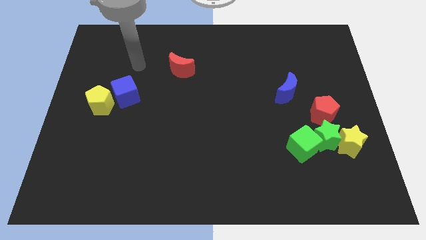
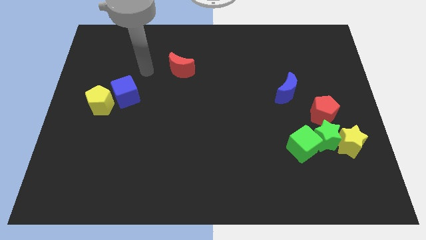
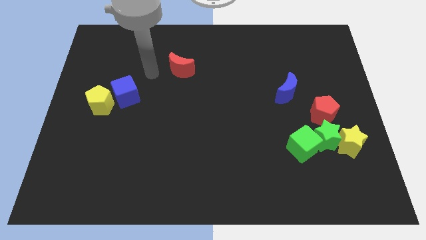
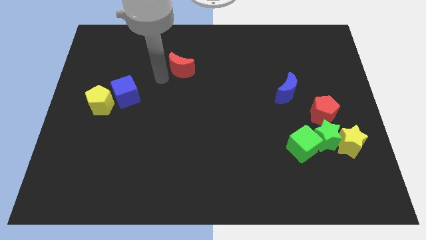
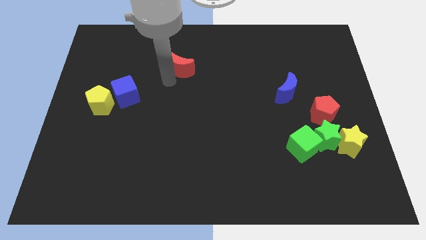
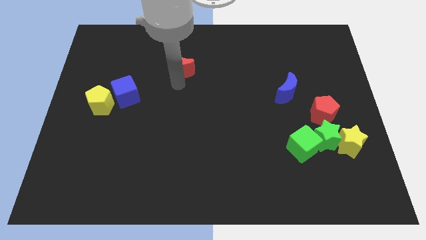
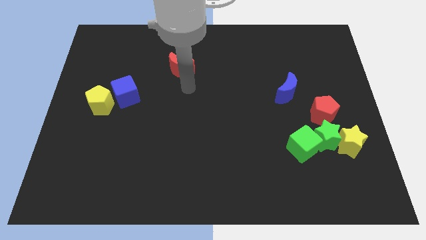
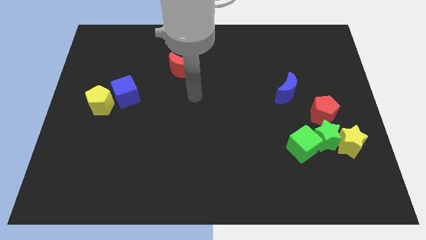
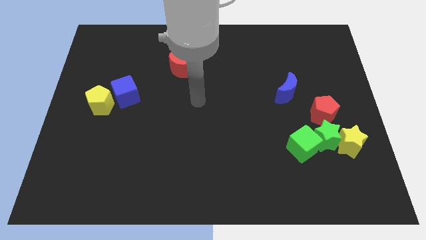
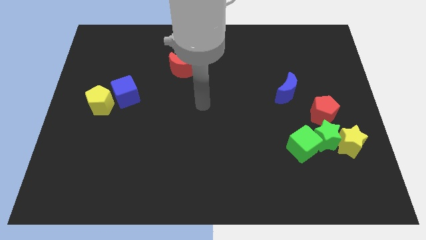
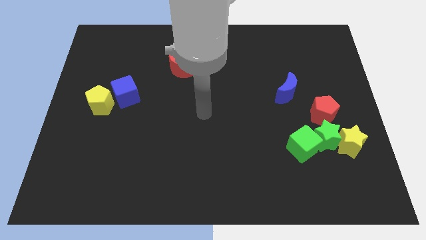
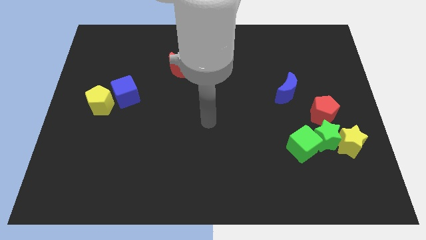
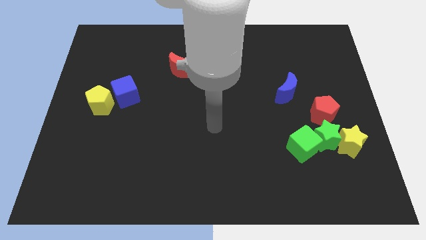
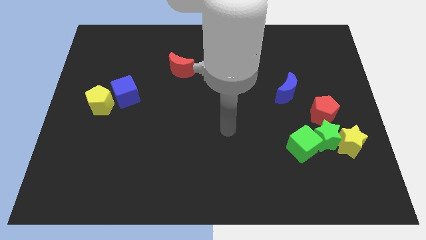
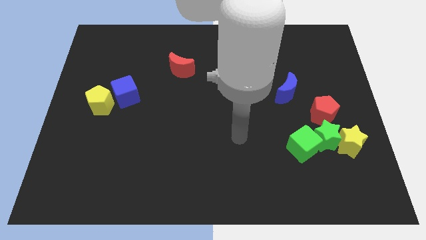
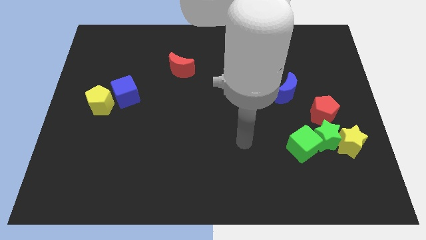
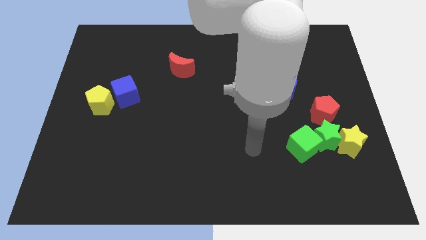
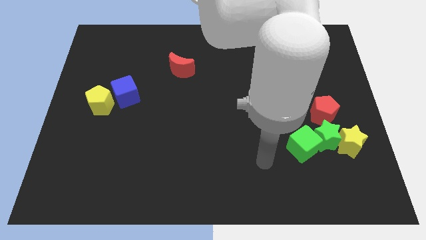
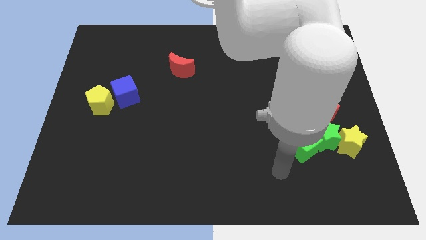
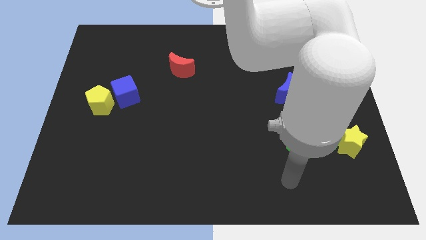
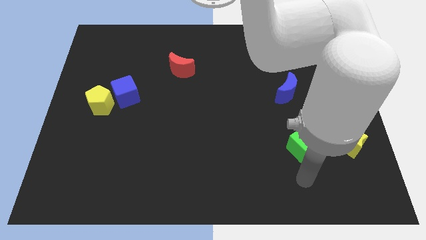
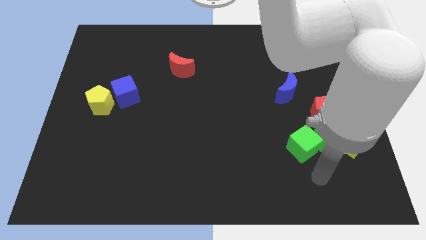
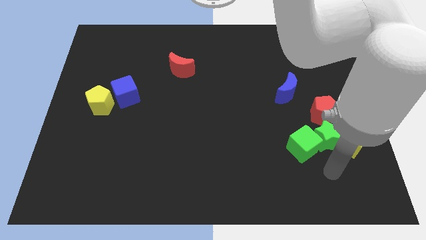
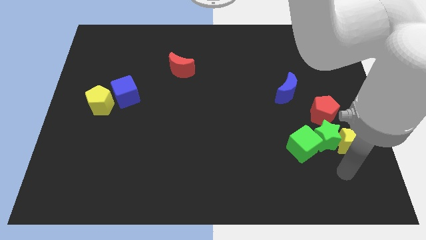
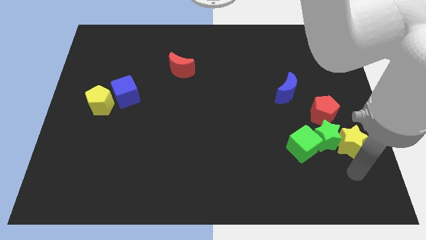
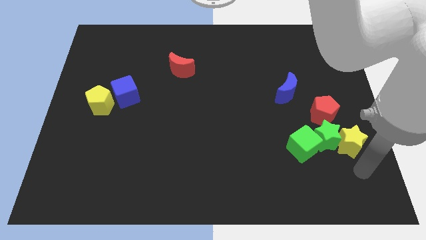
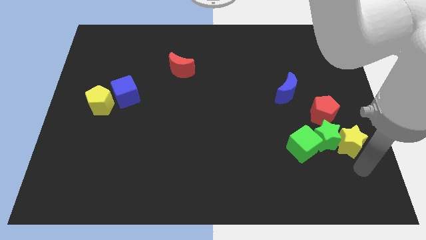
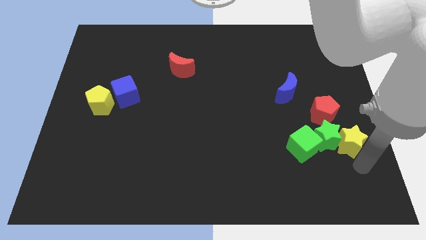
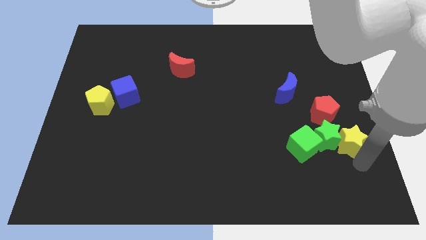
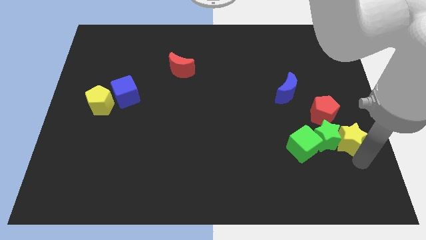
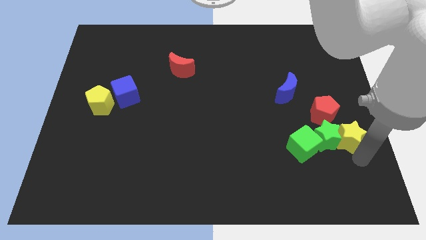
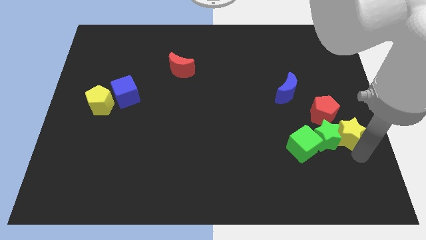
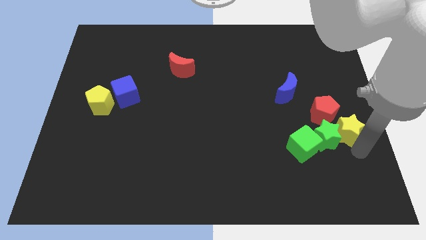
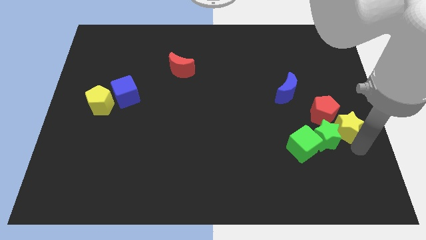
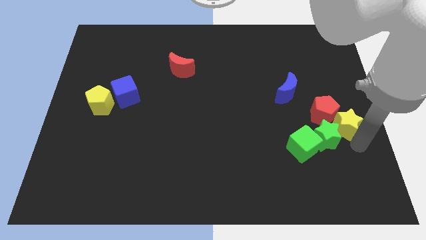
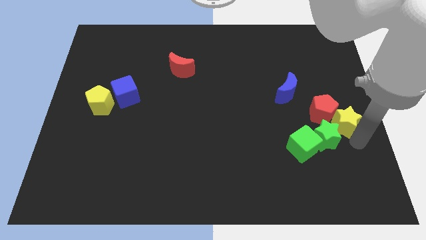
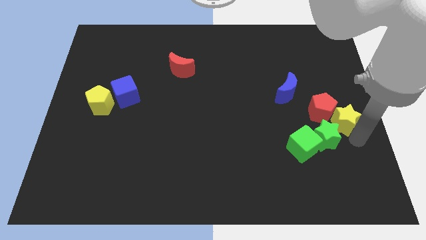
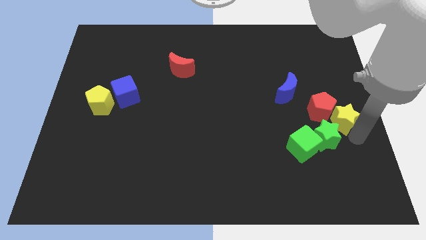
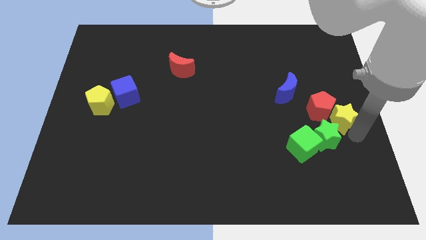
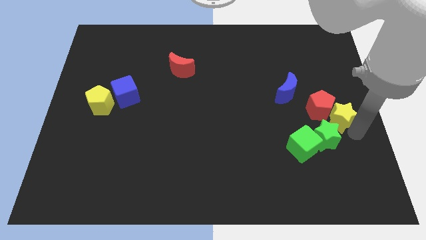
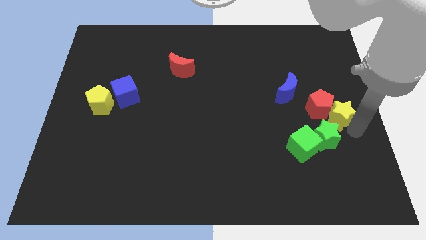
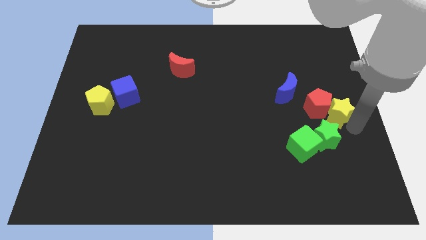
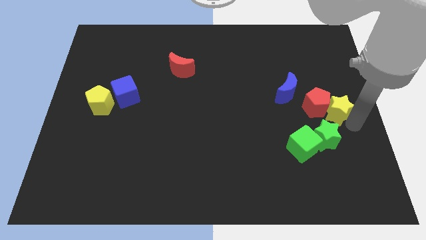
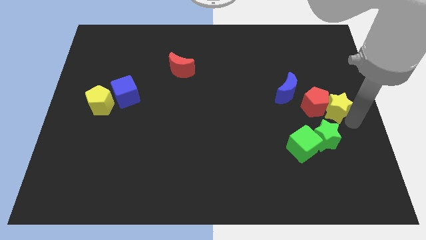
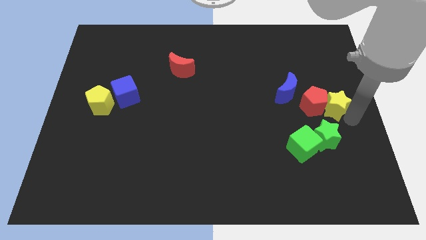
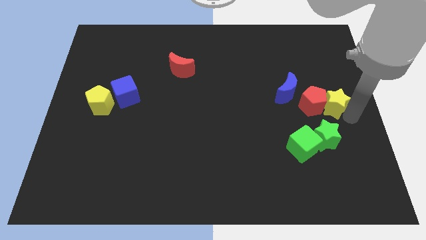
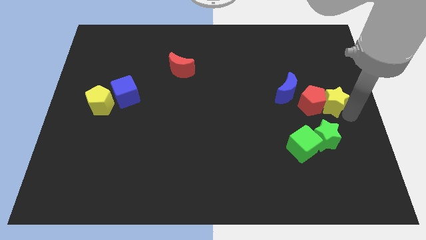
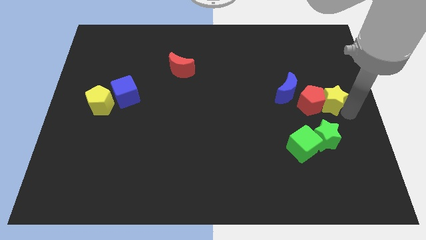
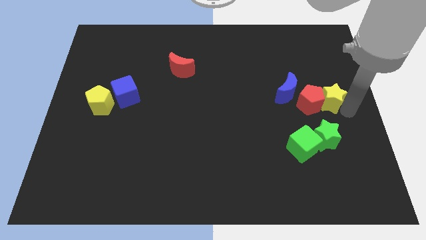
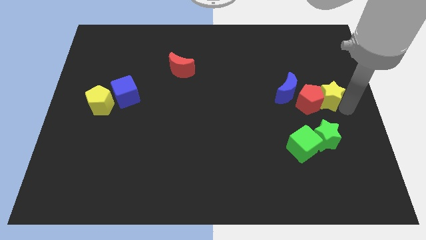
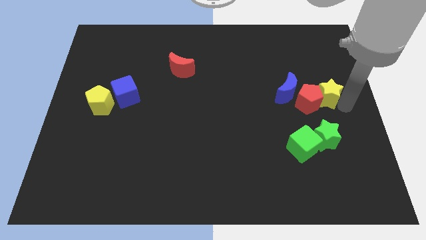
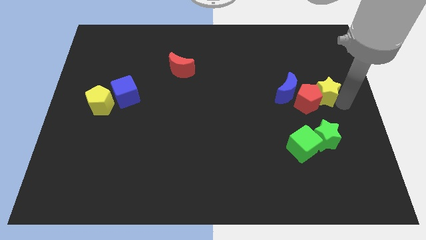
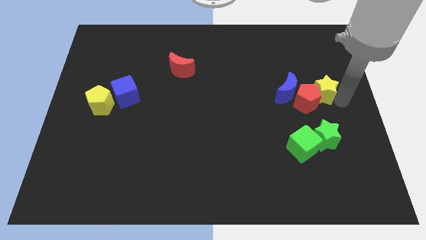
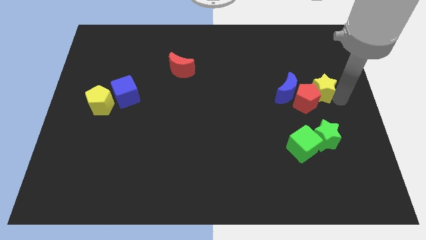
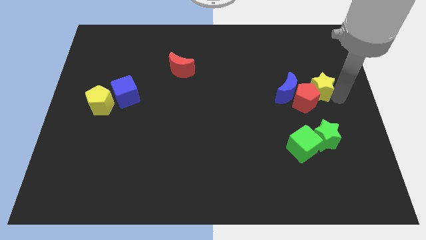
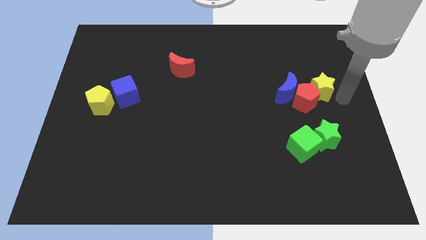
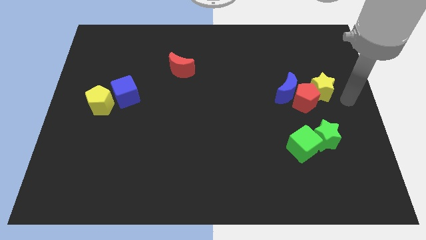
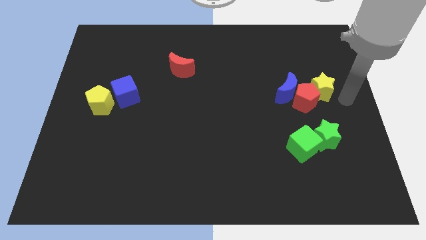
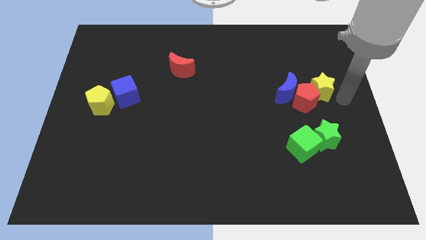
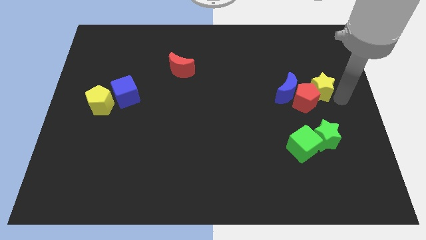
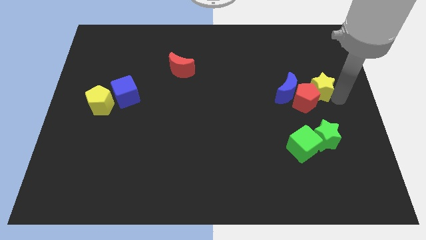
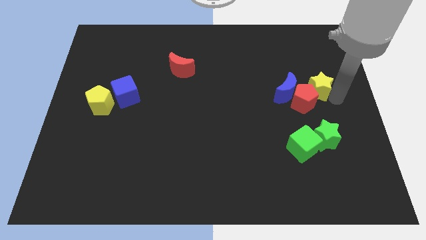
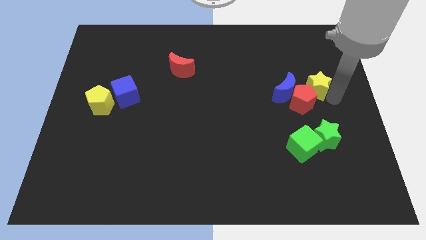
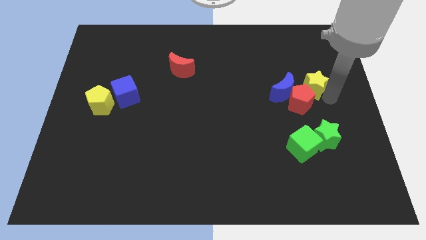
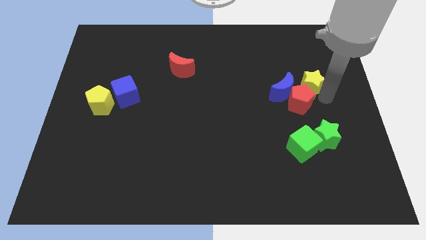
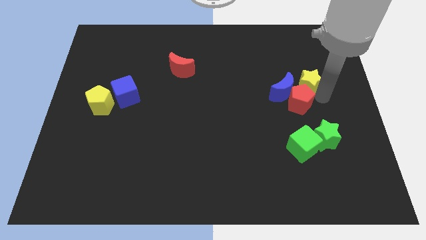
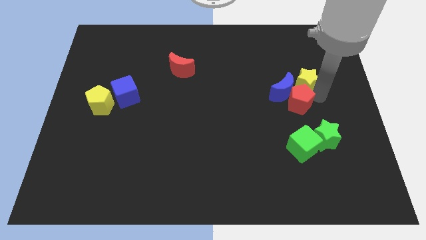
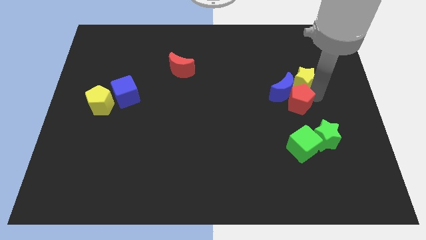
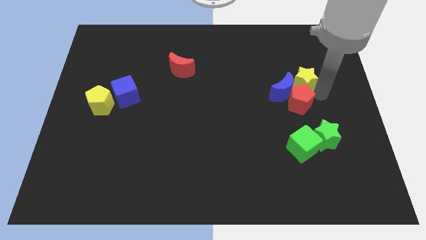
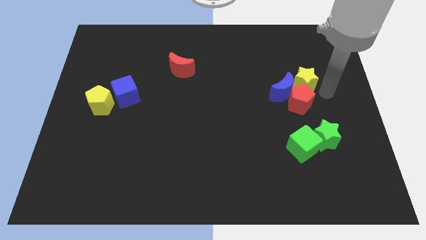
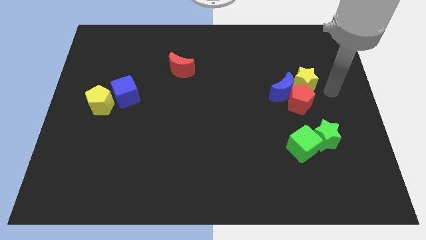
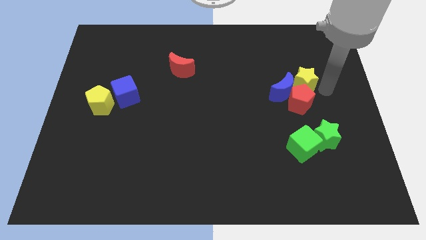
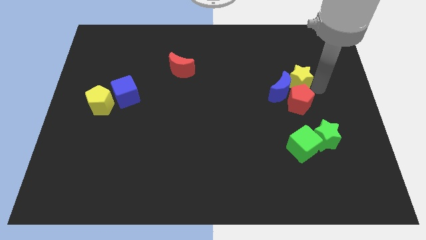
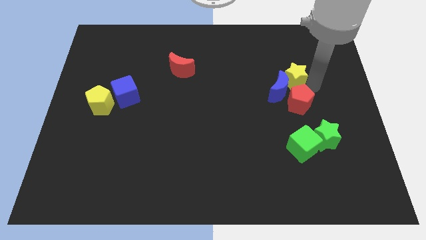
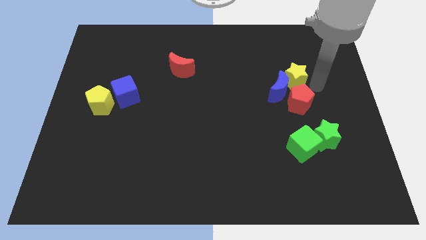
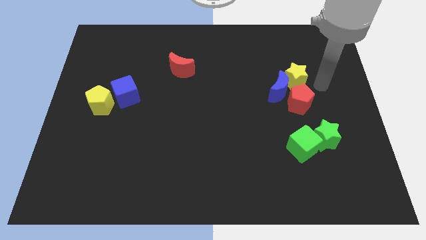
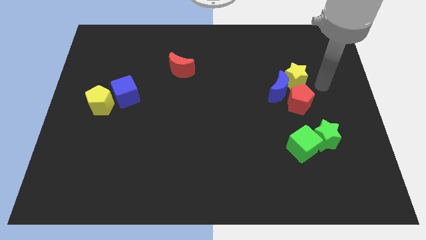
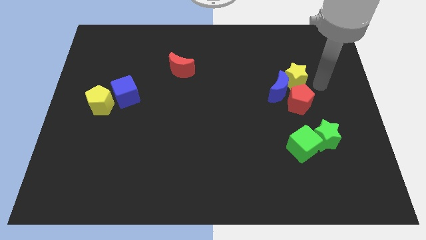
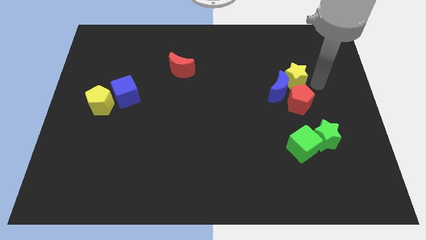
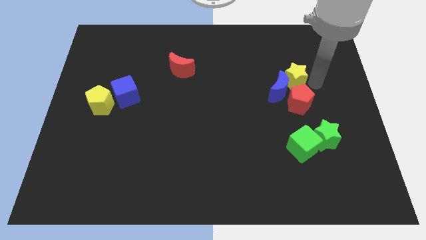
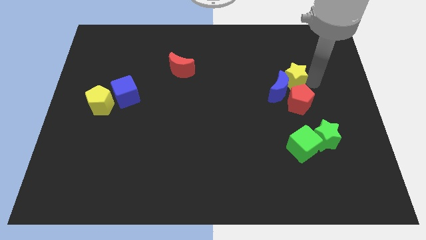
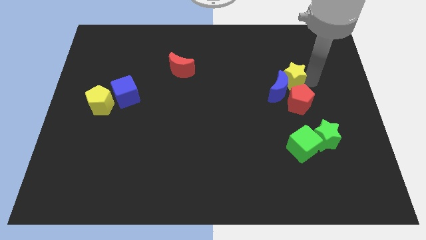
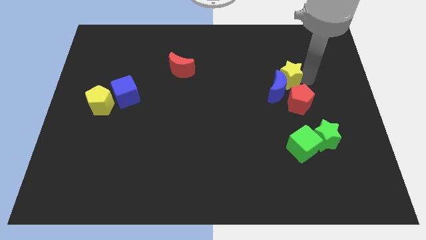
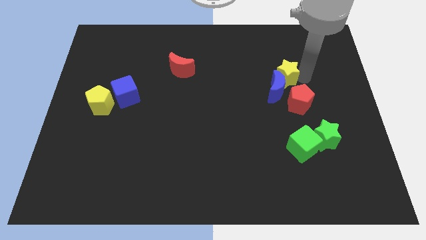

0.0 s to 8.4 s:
move the yellow star diagonally up and left

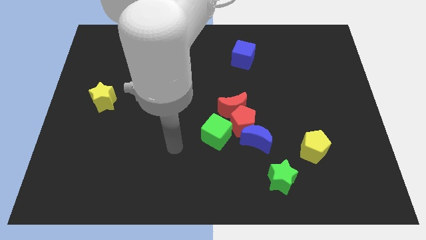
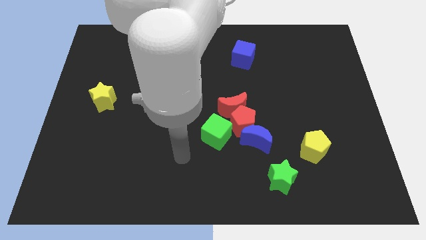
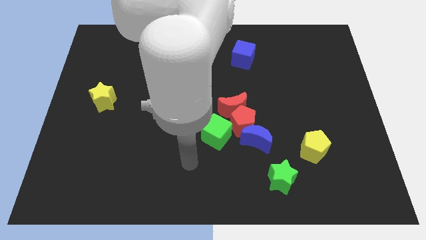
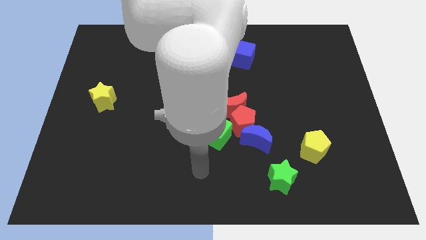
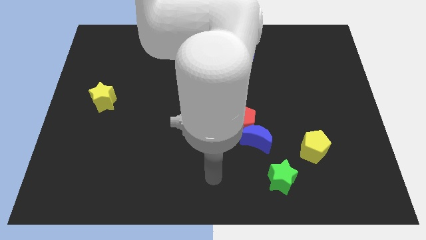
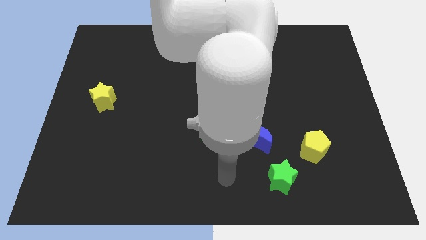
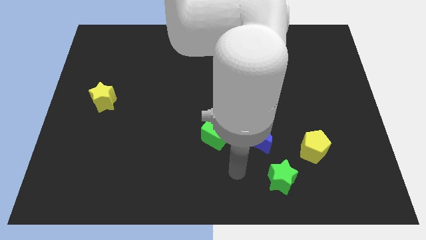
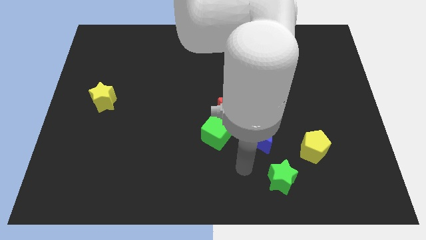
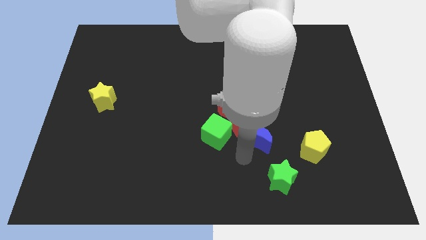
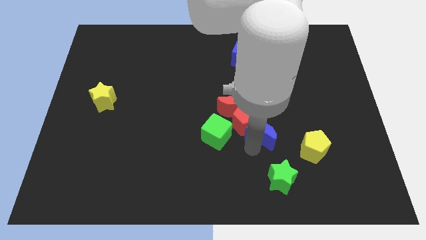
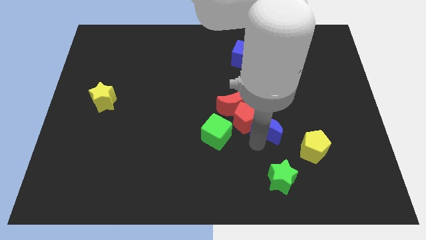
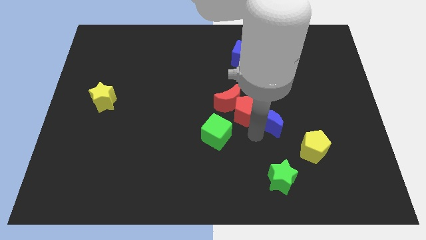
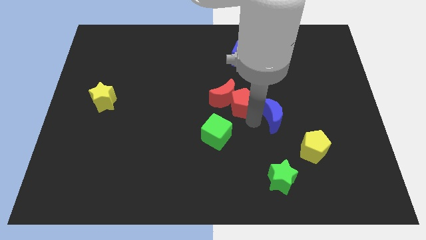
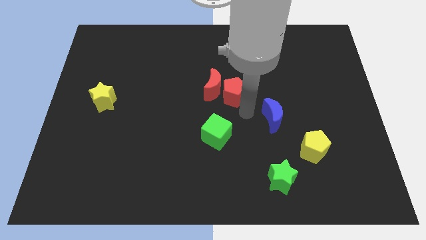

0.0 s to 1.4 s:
slightly slide the red moon upwards and to the left diagonally
